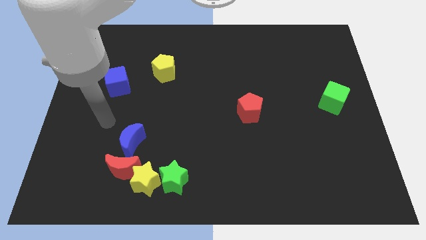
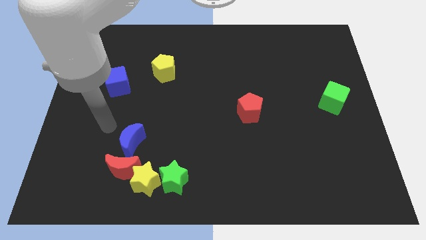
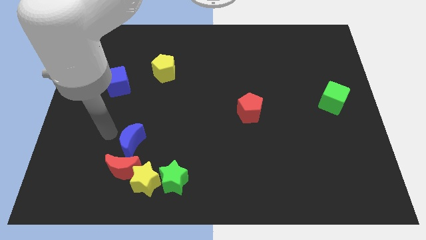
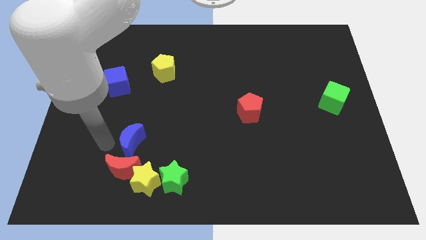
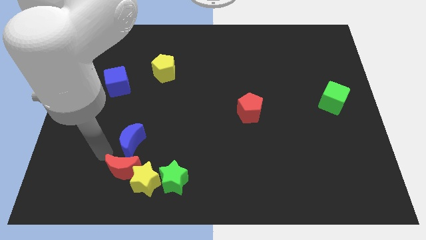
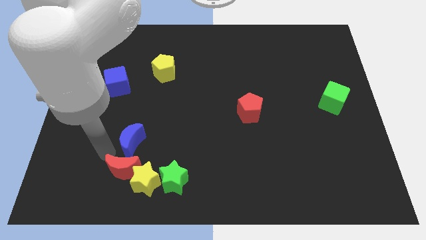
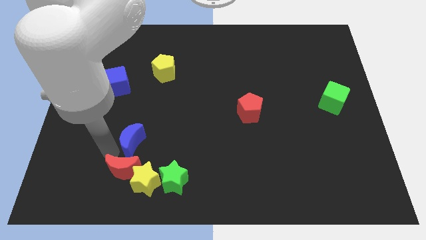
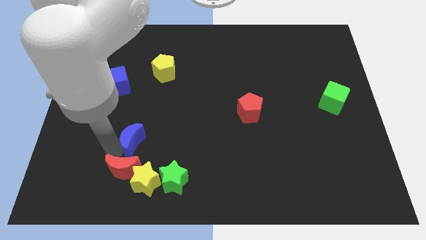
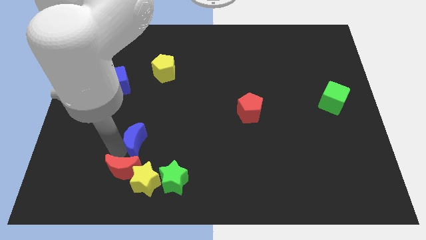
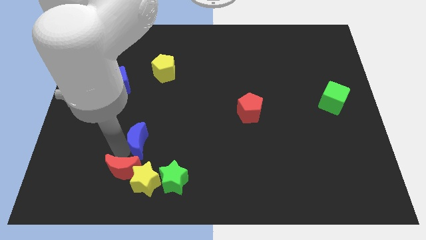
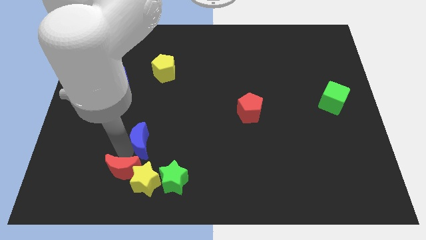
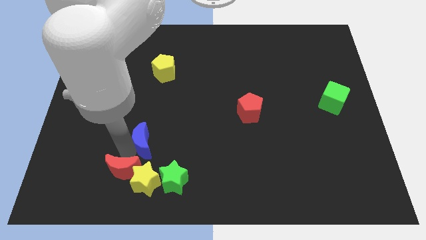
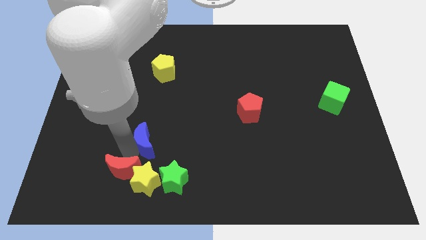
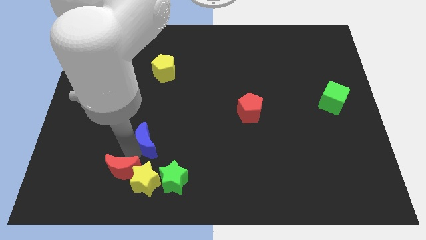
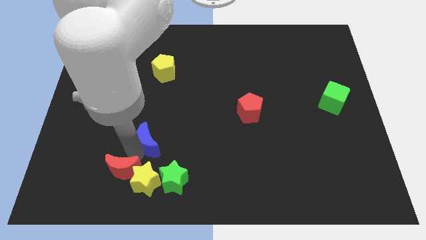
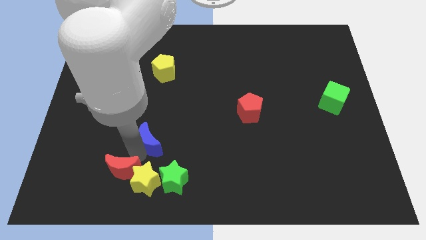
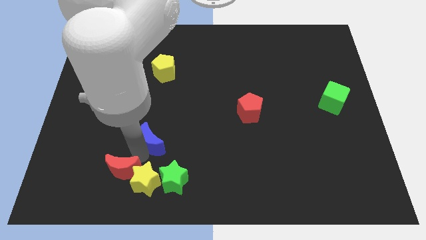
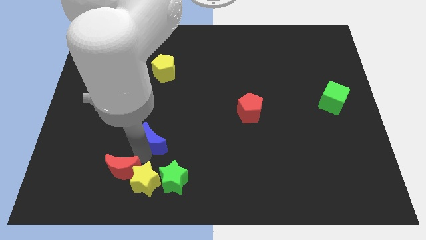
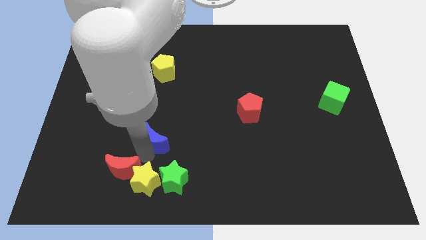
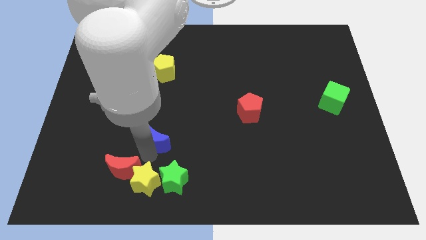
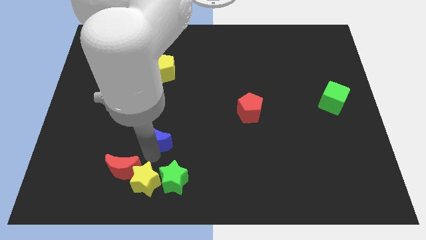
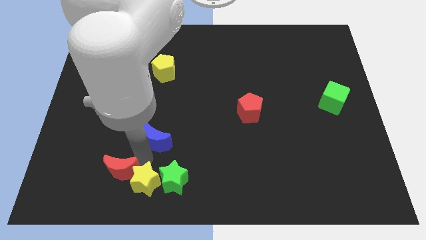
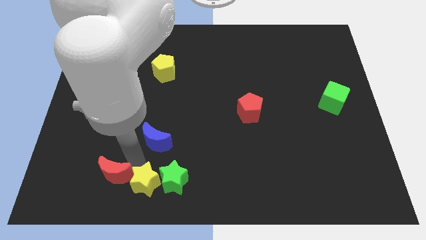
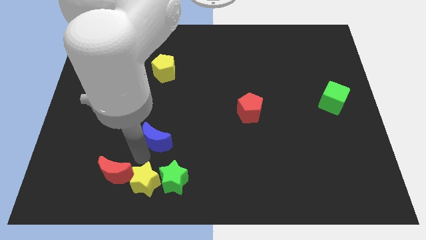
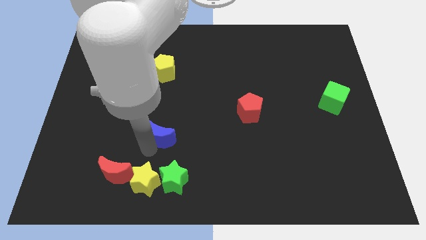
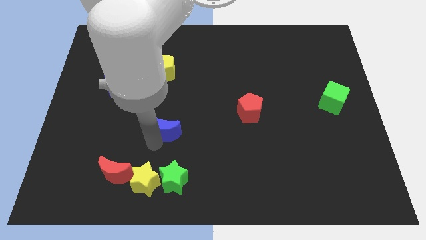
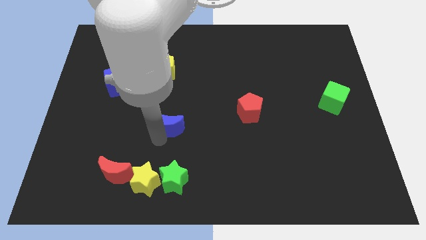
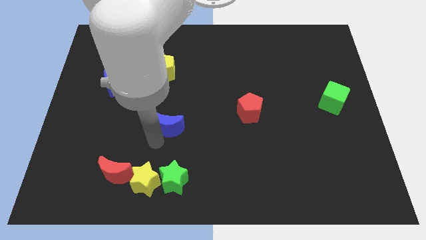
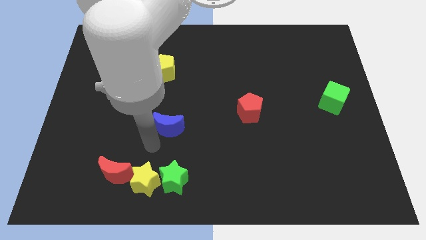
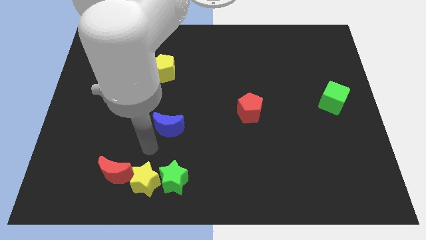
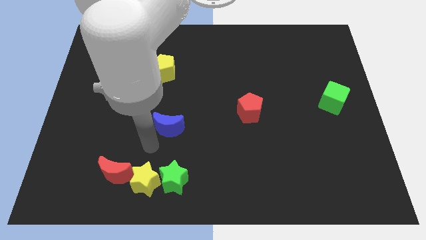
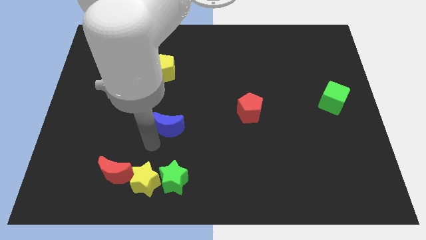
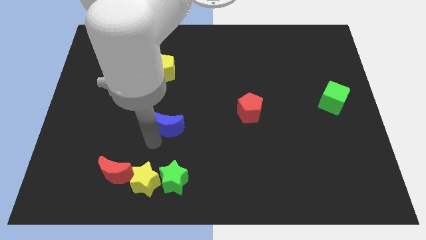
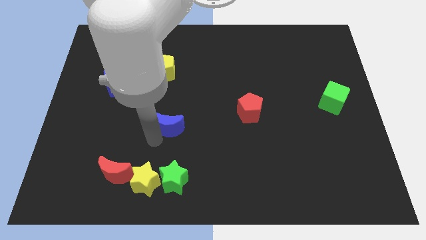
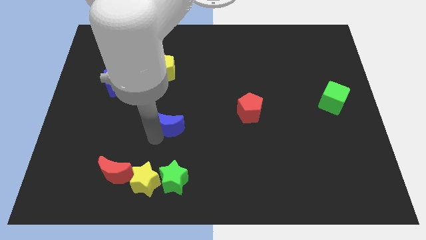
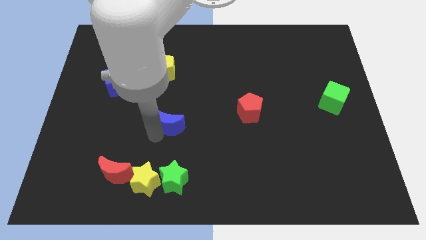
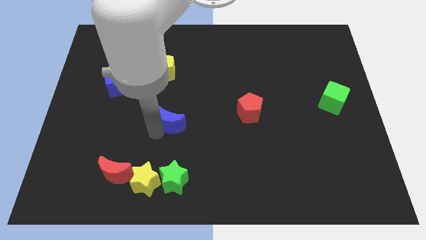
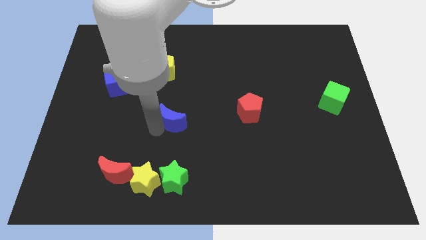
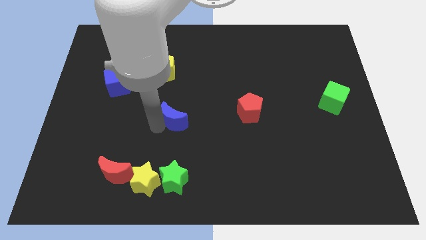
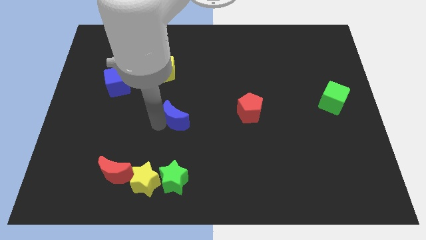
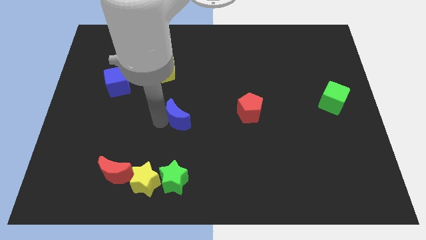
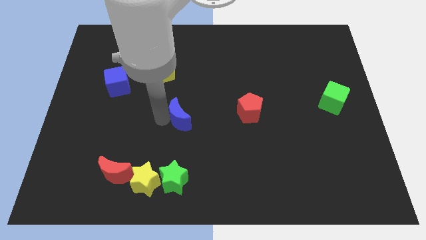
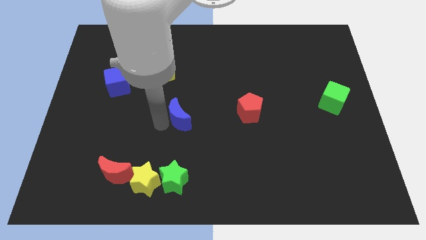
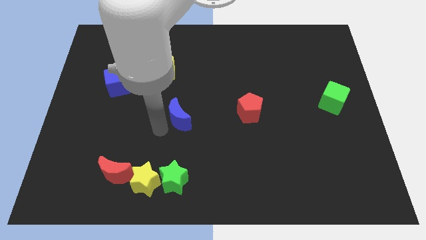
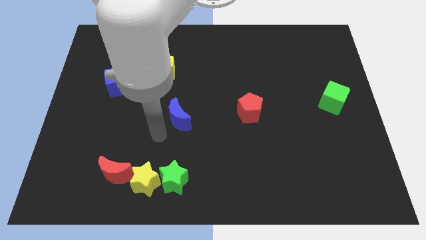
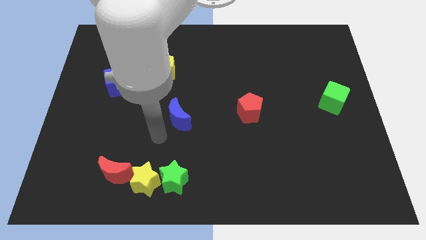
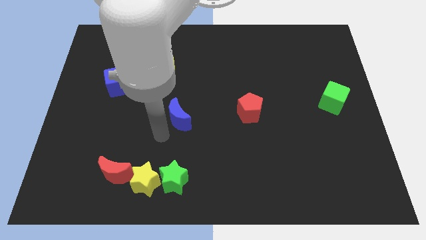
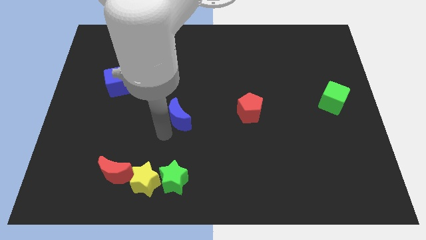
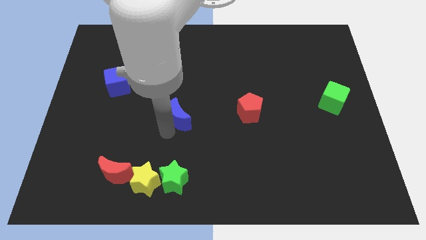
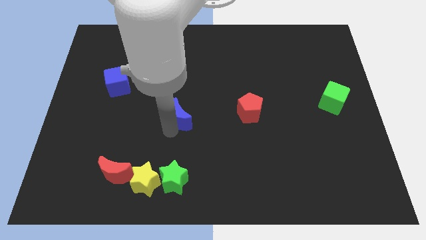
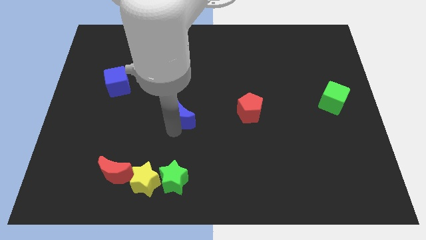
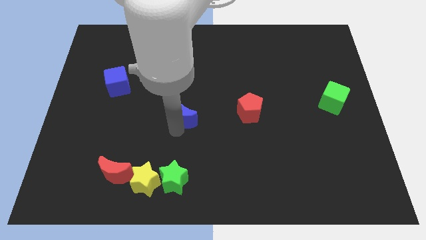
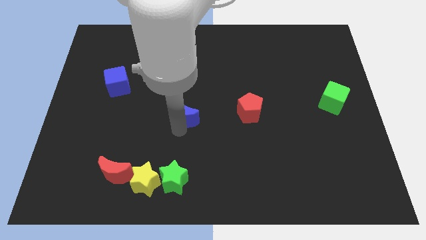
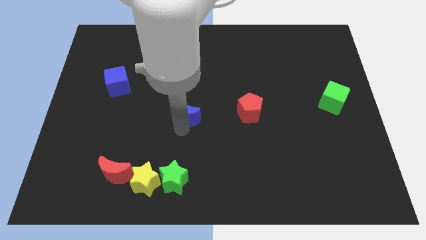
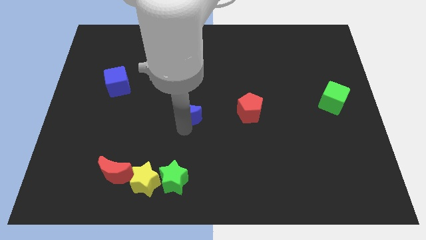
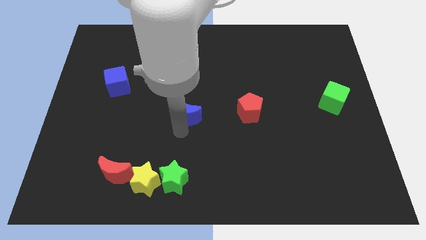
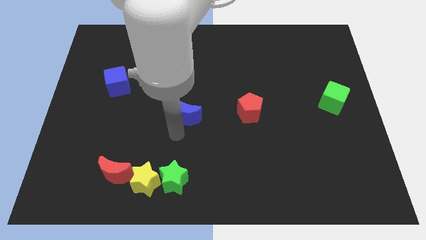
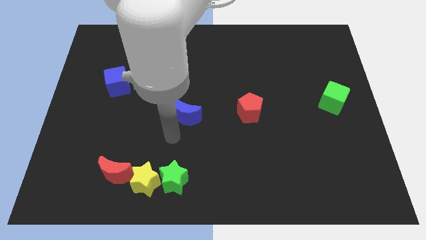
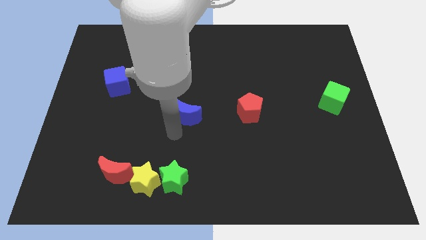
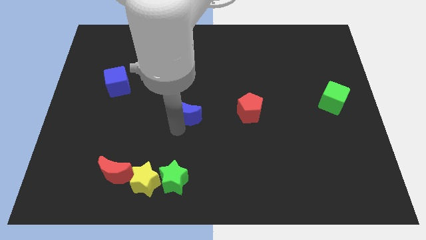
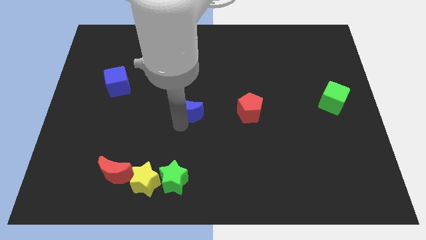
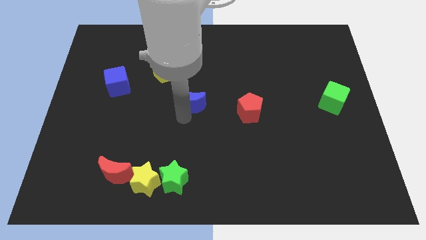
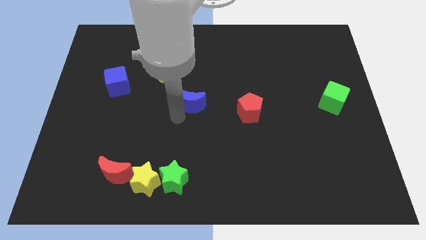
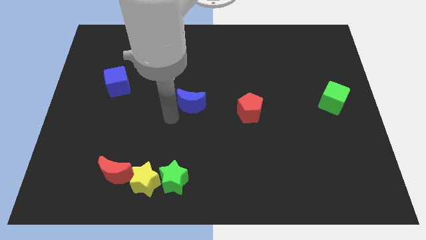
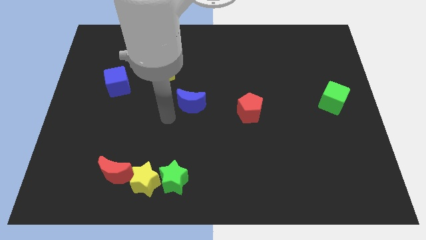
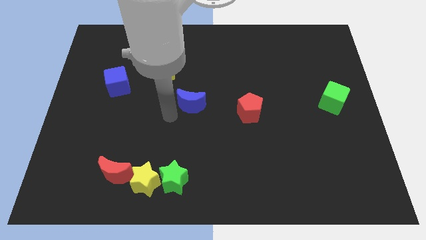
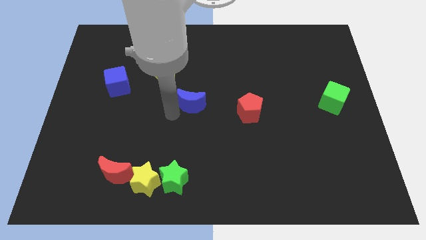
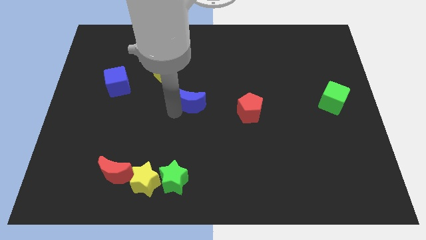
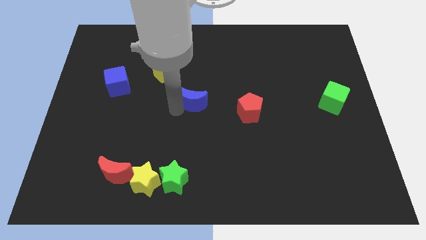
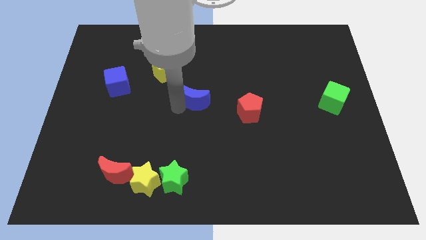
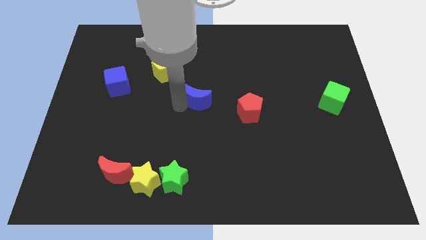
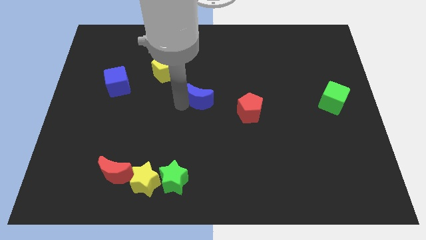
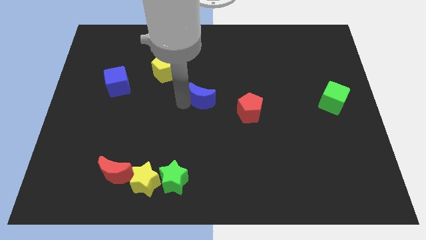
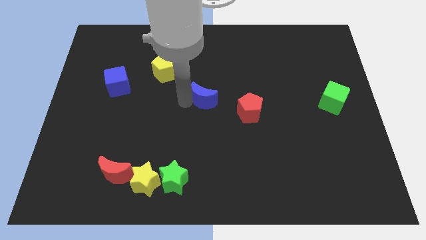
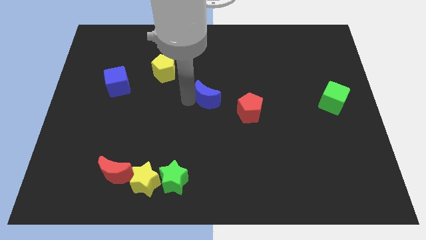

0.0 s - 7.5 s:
slide the blue moon diagonally up and to the right

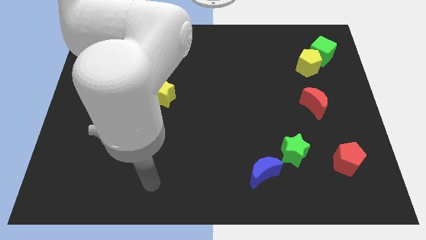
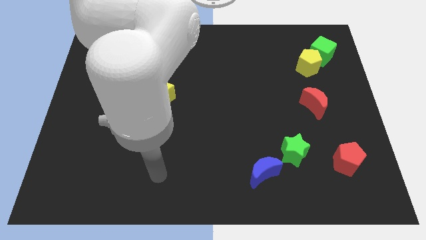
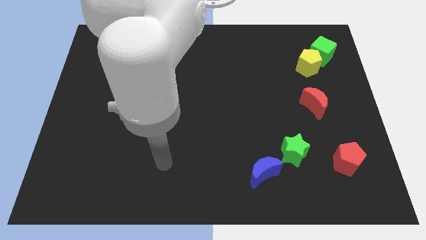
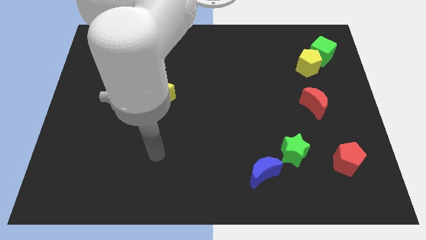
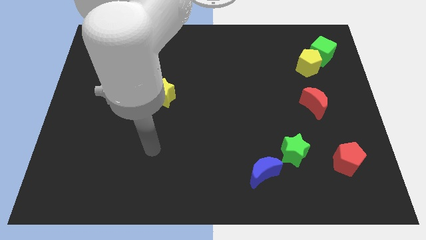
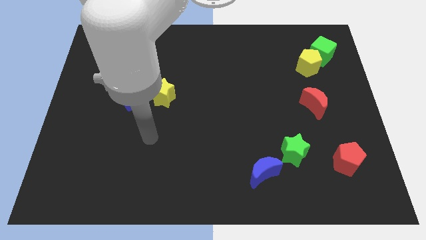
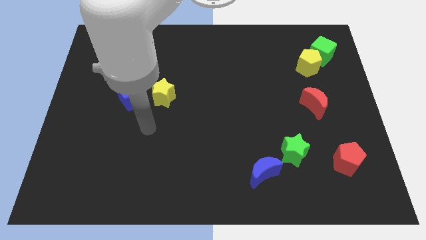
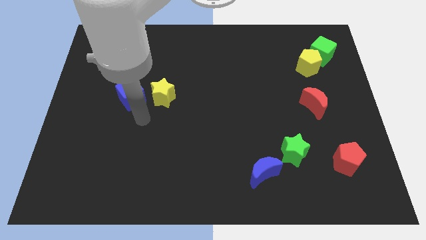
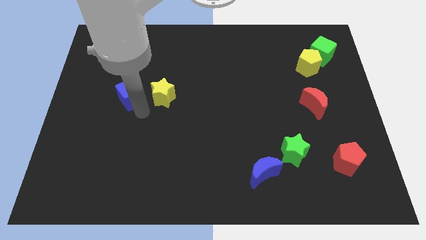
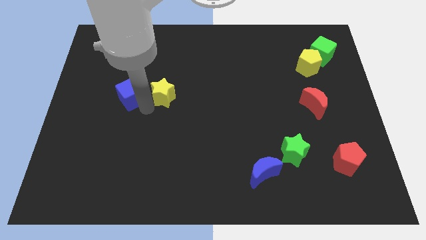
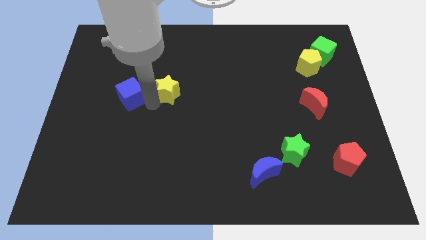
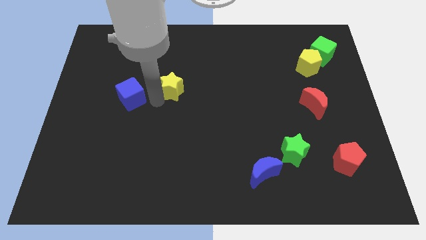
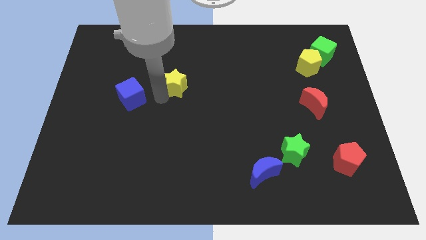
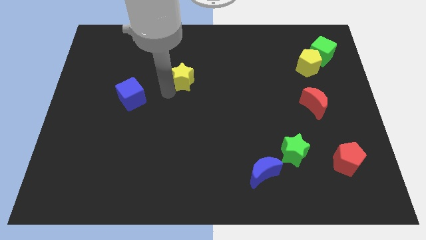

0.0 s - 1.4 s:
slightly slide the yellow star up and then to the right
